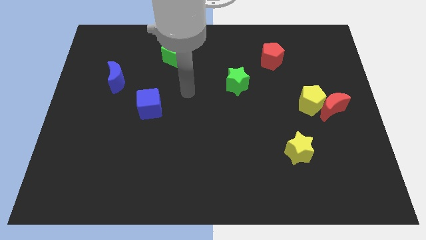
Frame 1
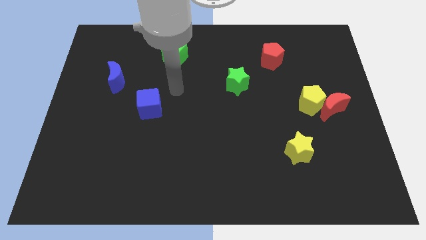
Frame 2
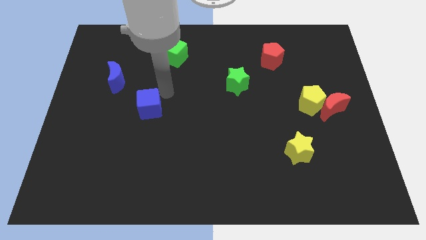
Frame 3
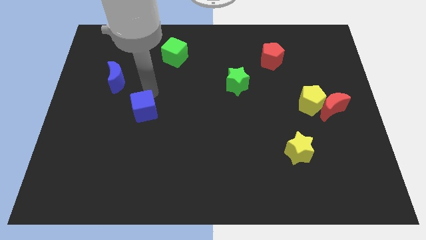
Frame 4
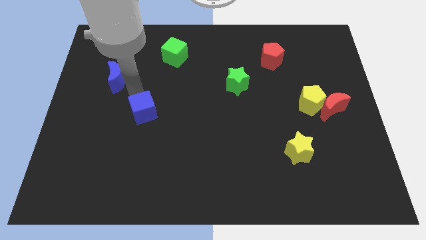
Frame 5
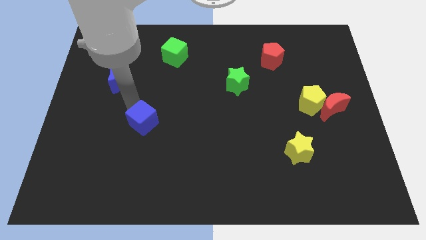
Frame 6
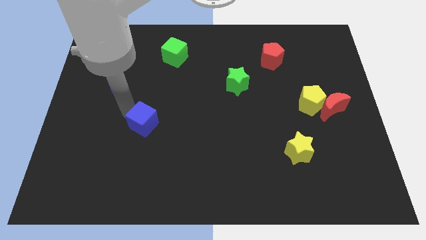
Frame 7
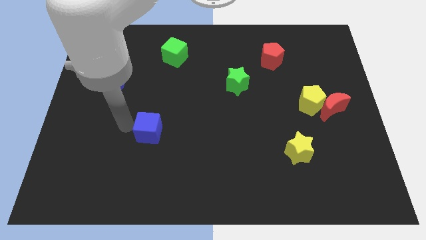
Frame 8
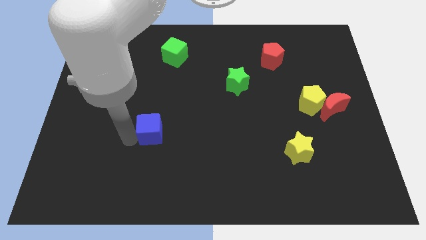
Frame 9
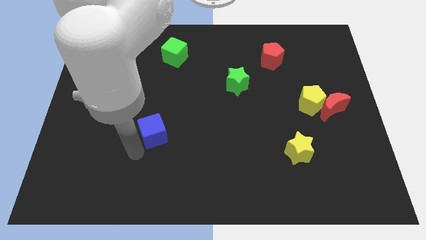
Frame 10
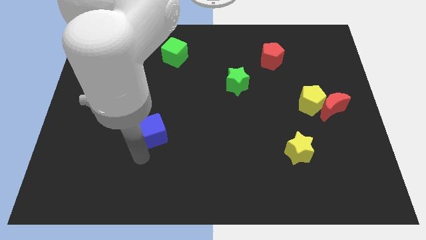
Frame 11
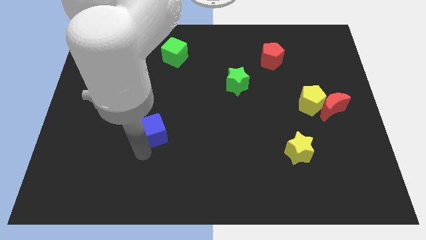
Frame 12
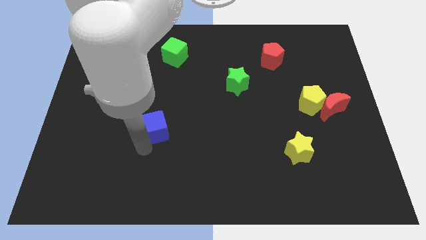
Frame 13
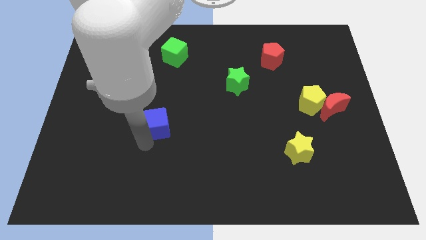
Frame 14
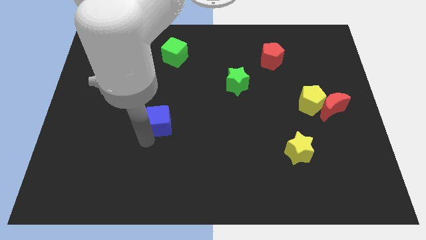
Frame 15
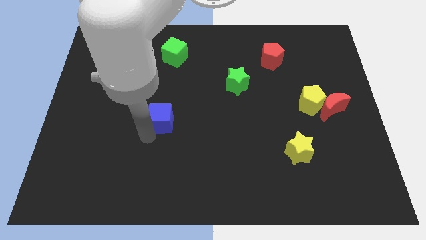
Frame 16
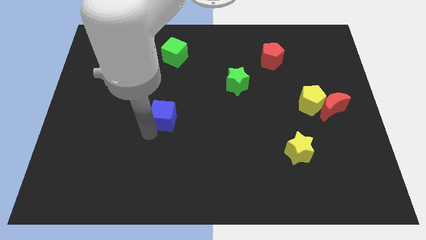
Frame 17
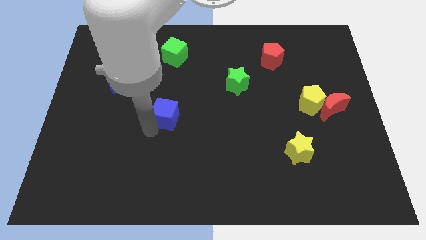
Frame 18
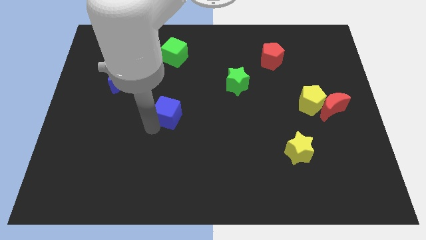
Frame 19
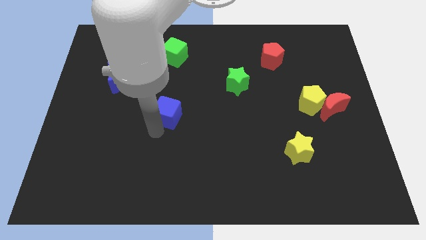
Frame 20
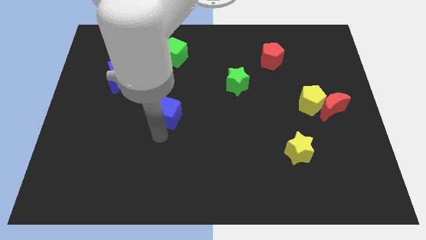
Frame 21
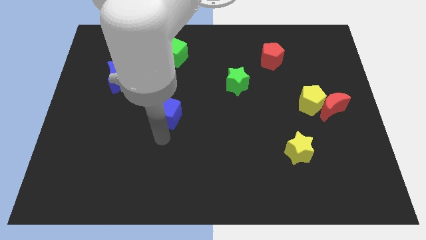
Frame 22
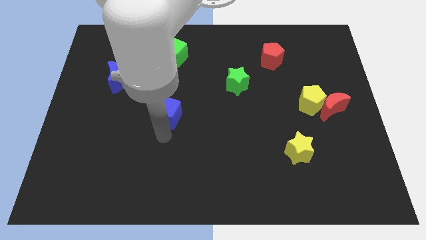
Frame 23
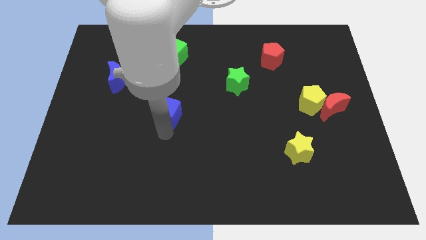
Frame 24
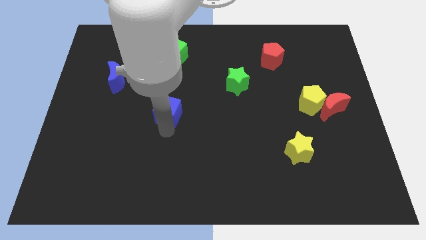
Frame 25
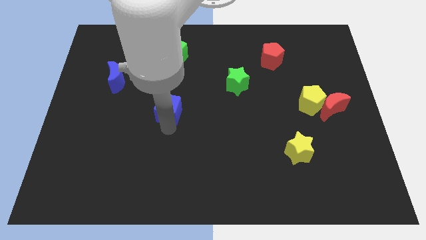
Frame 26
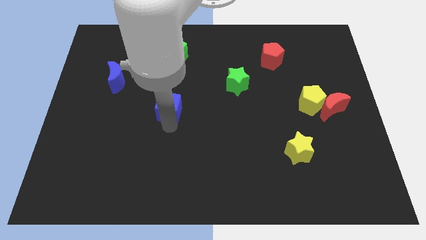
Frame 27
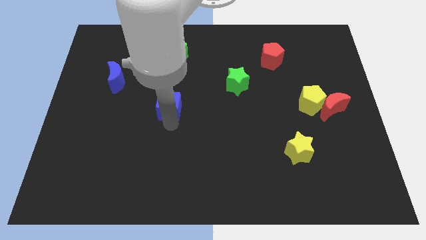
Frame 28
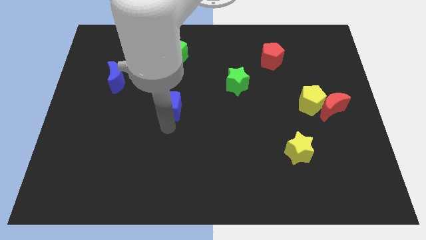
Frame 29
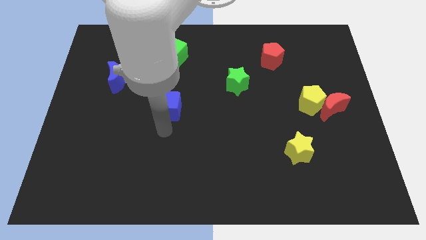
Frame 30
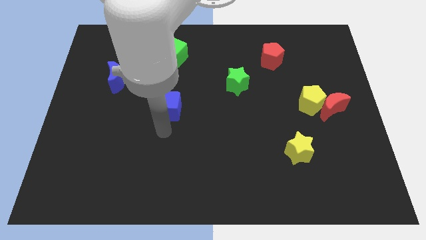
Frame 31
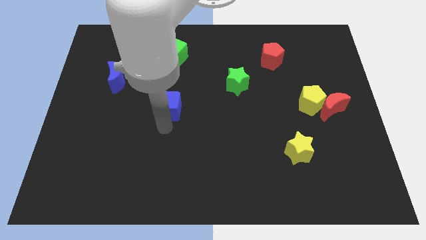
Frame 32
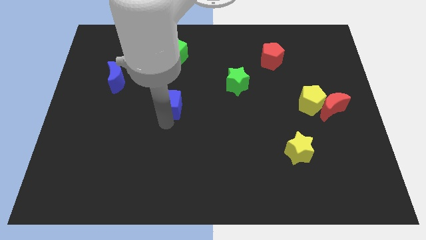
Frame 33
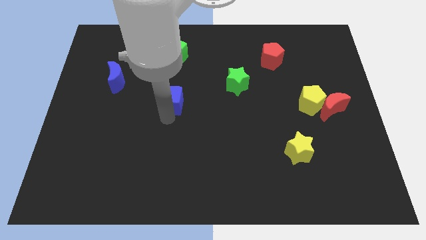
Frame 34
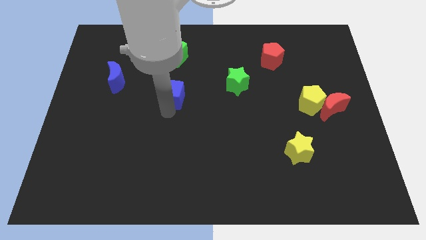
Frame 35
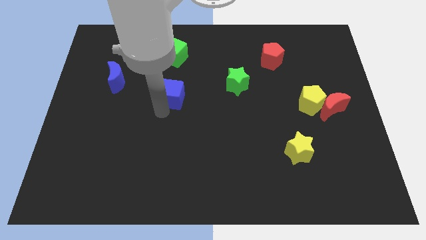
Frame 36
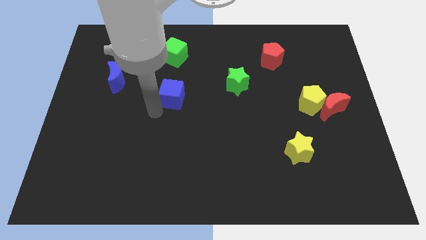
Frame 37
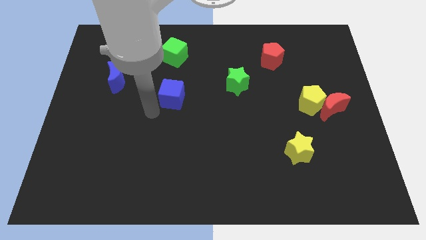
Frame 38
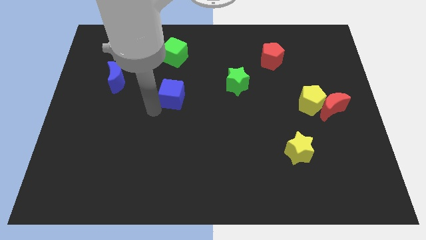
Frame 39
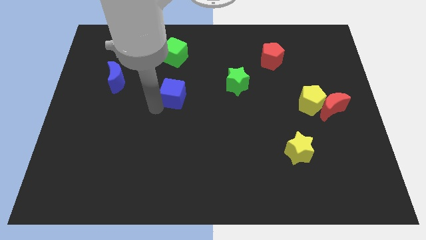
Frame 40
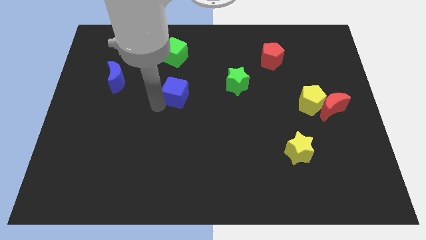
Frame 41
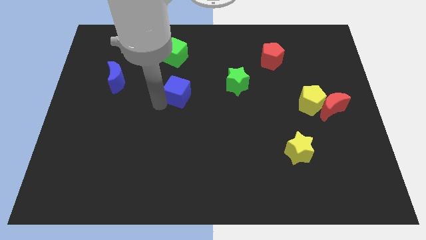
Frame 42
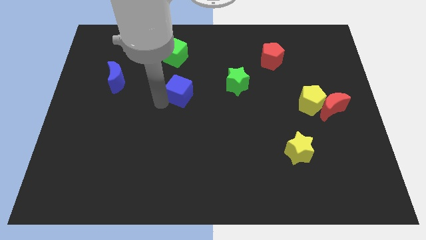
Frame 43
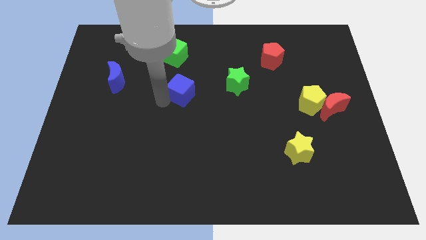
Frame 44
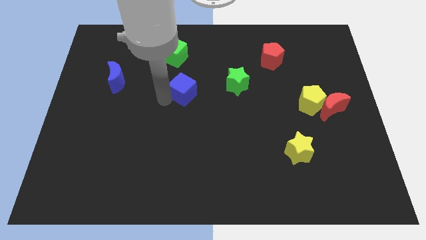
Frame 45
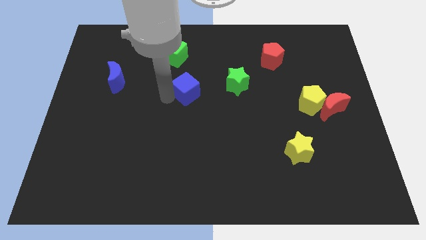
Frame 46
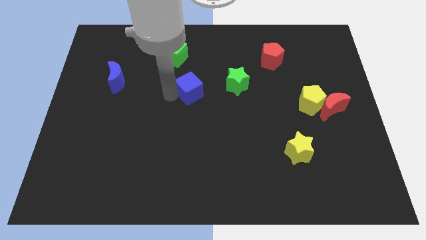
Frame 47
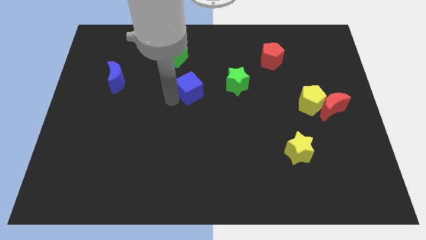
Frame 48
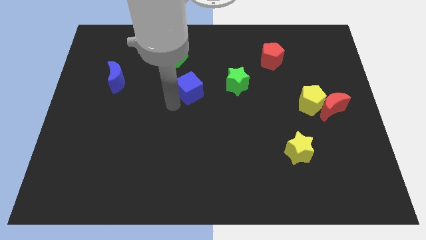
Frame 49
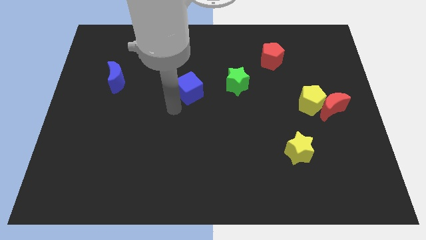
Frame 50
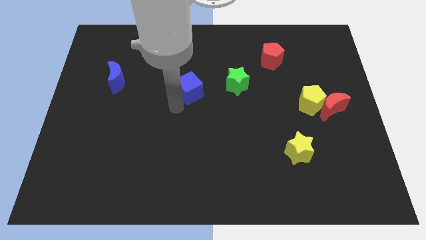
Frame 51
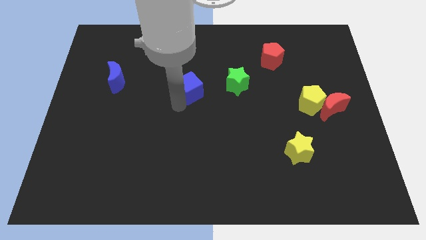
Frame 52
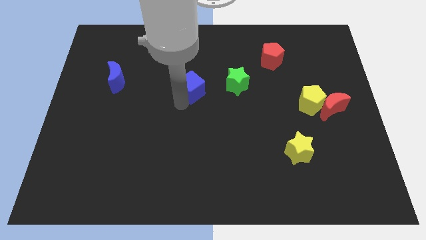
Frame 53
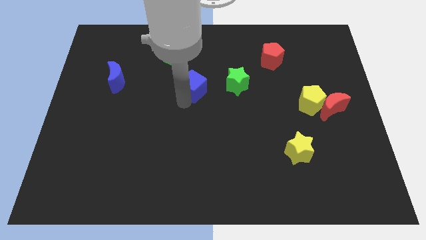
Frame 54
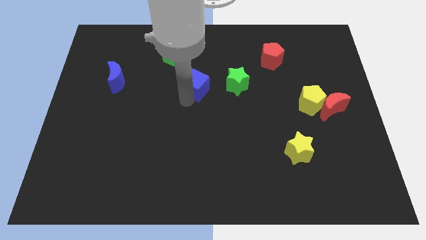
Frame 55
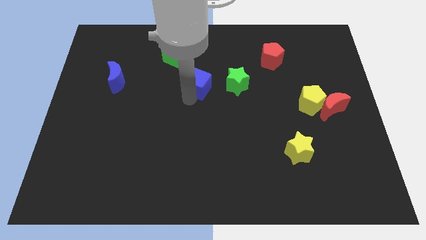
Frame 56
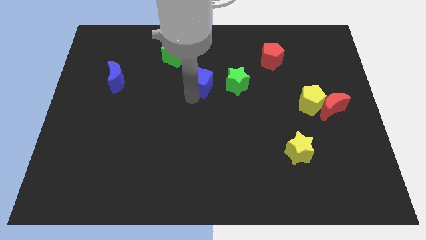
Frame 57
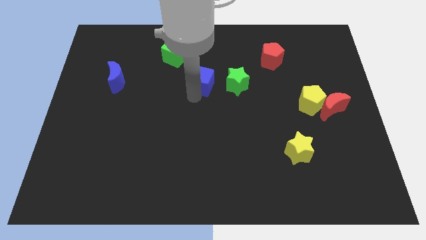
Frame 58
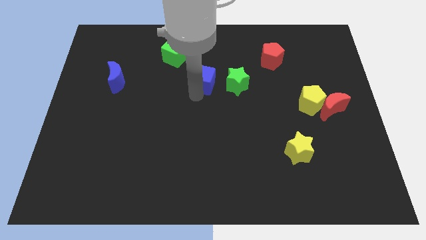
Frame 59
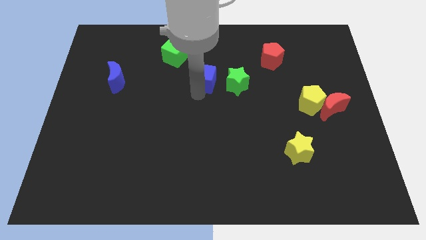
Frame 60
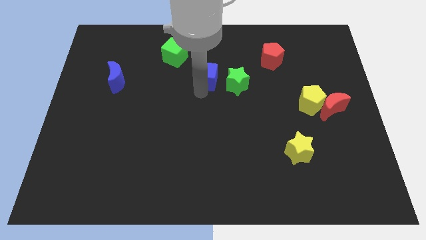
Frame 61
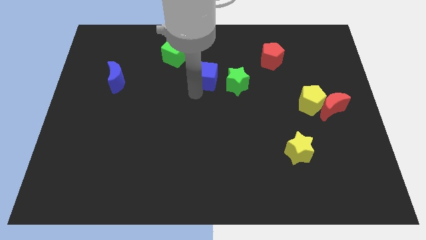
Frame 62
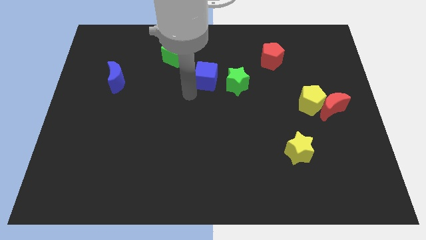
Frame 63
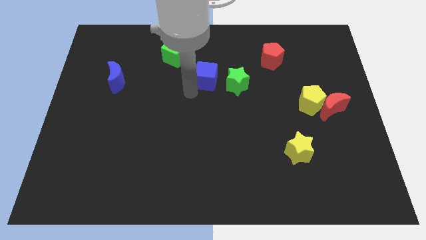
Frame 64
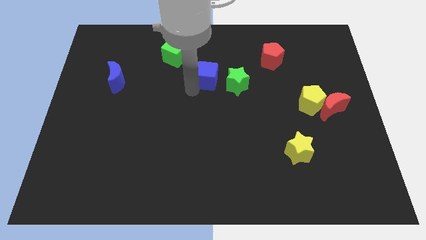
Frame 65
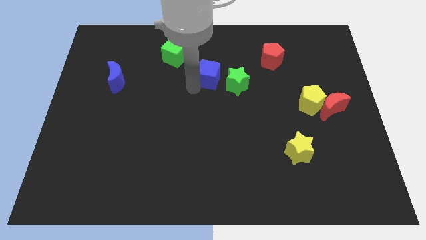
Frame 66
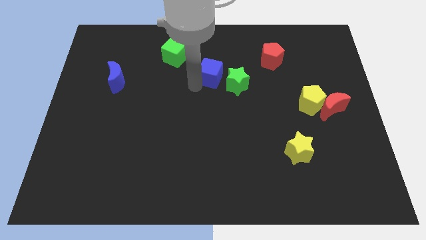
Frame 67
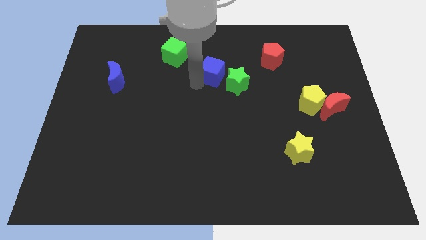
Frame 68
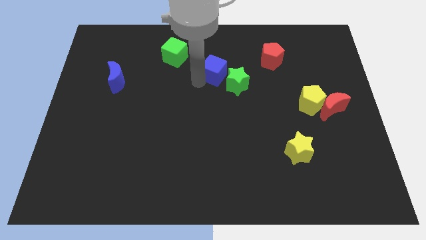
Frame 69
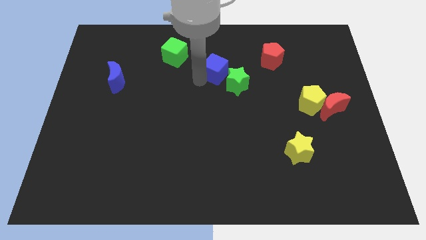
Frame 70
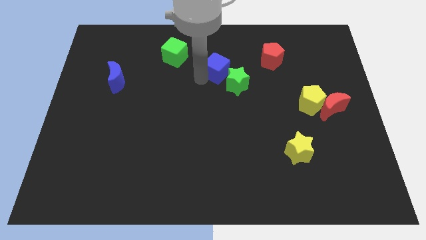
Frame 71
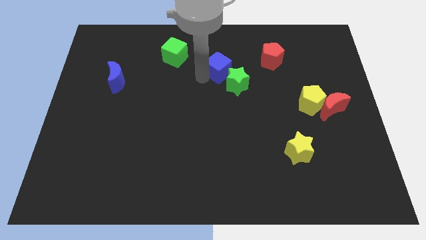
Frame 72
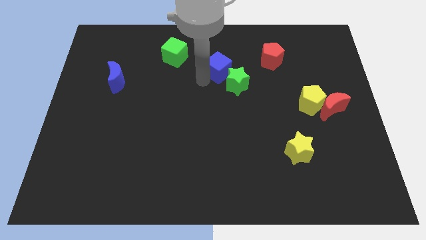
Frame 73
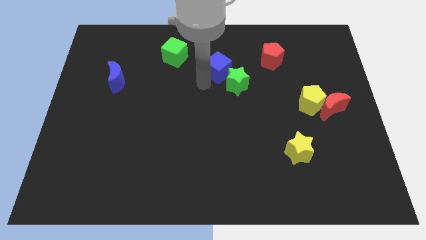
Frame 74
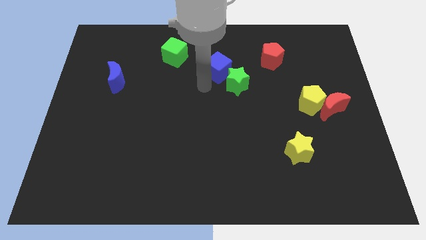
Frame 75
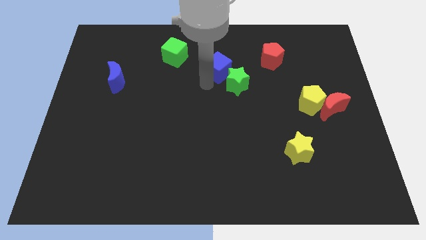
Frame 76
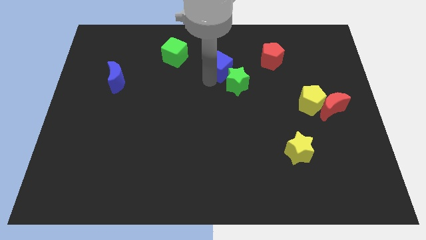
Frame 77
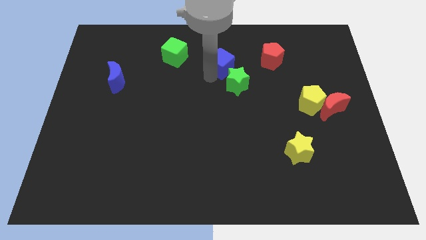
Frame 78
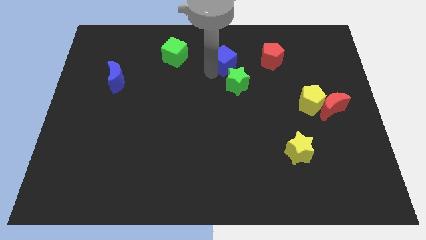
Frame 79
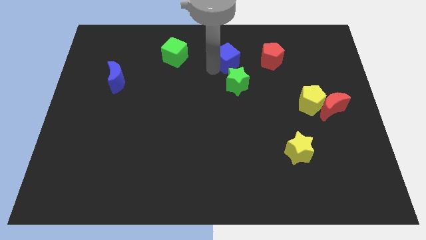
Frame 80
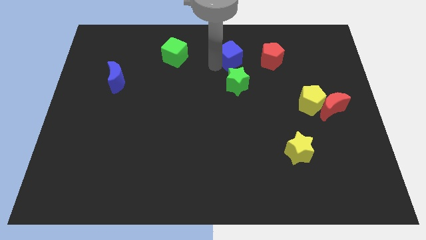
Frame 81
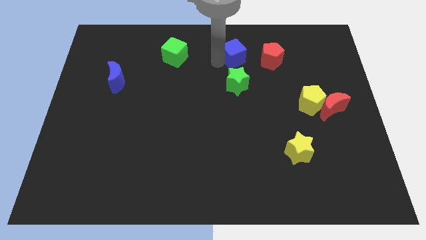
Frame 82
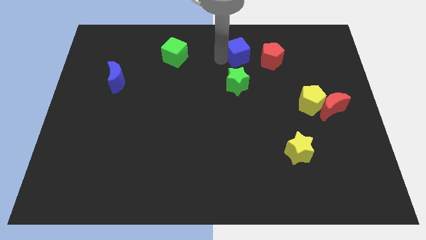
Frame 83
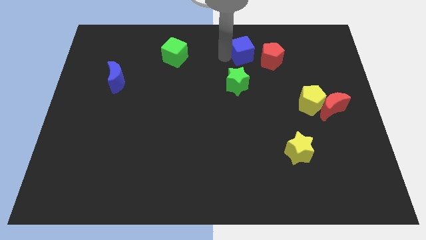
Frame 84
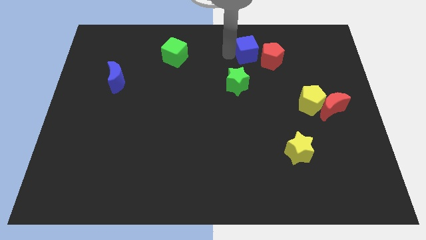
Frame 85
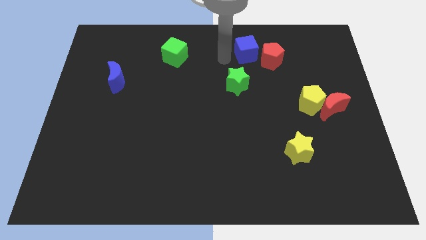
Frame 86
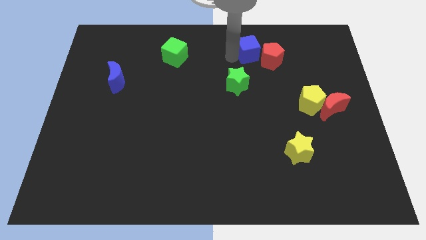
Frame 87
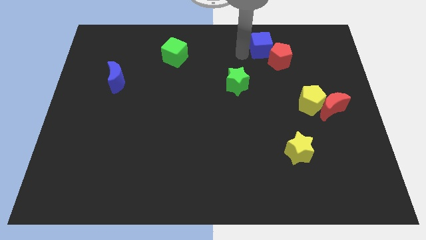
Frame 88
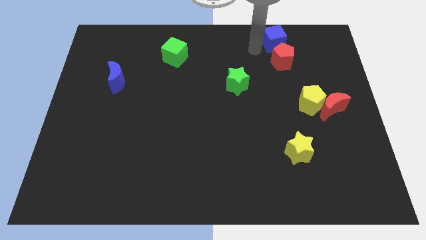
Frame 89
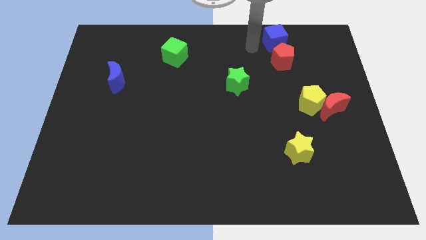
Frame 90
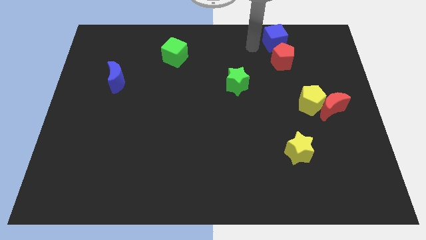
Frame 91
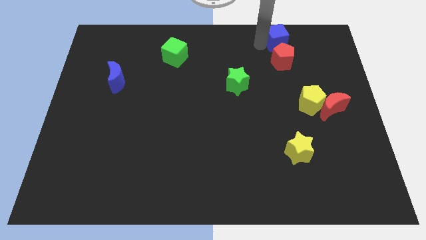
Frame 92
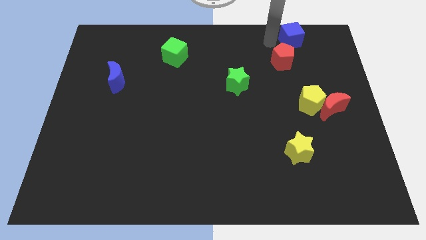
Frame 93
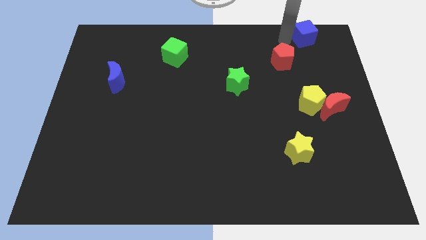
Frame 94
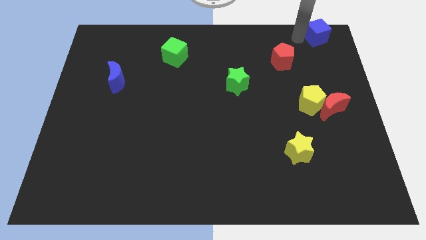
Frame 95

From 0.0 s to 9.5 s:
slide the blue cube to the top right
